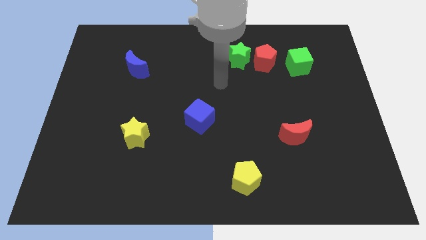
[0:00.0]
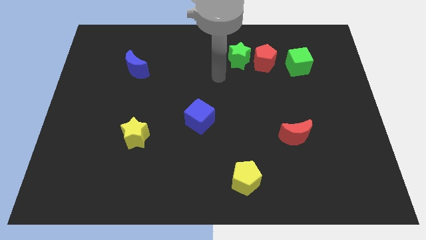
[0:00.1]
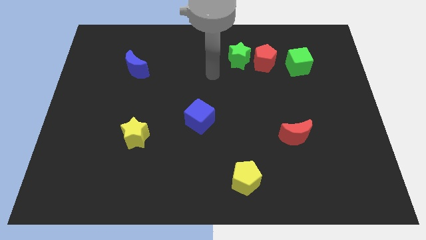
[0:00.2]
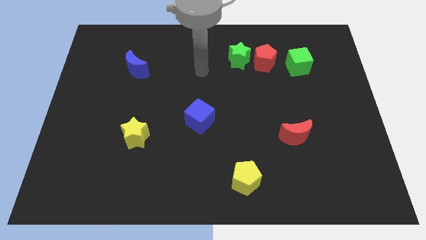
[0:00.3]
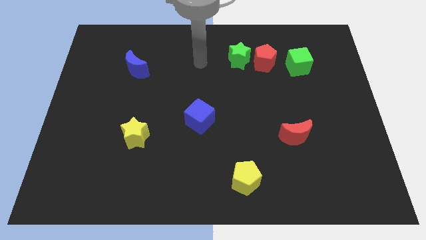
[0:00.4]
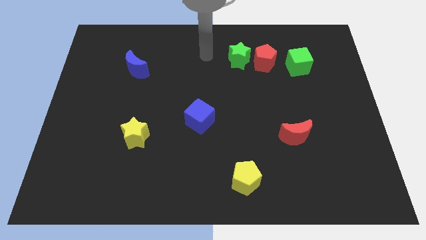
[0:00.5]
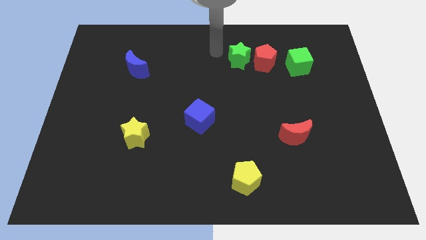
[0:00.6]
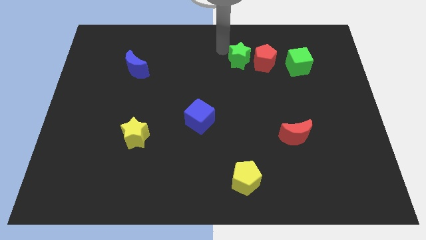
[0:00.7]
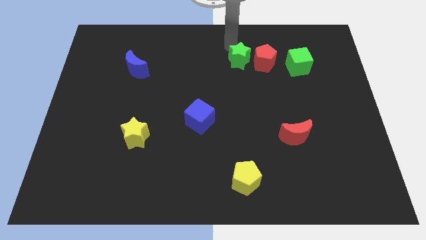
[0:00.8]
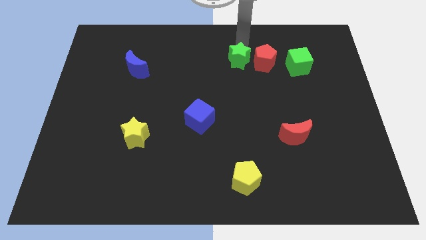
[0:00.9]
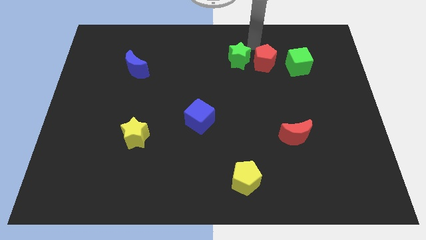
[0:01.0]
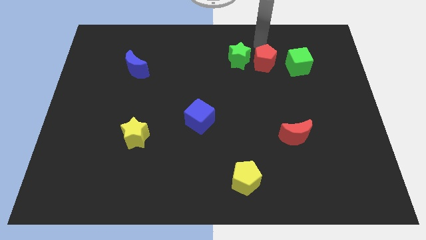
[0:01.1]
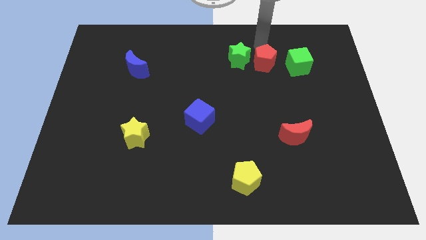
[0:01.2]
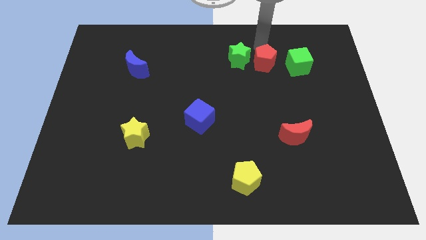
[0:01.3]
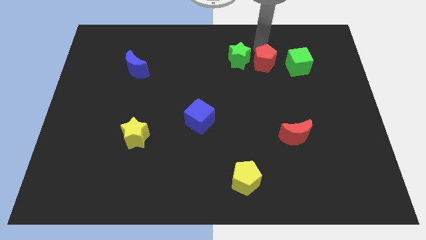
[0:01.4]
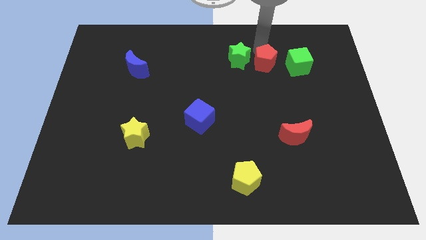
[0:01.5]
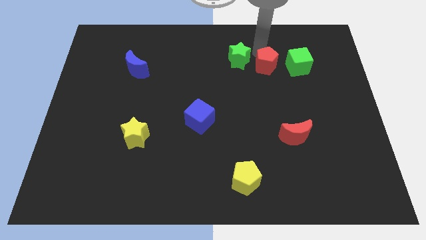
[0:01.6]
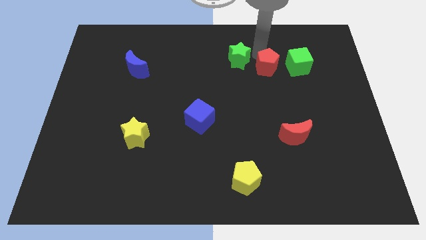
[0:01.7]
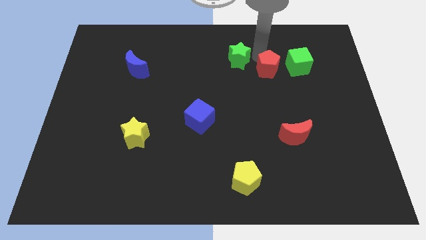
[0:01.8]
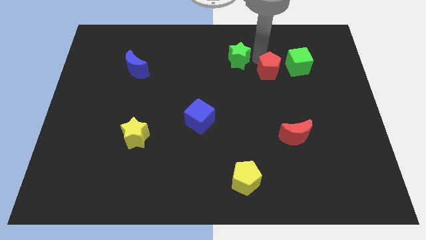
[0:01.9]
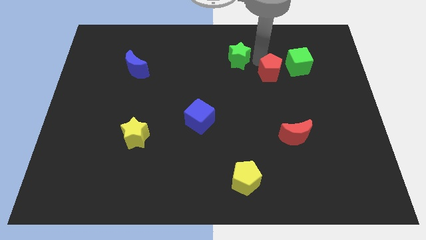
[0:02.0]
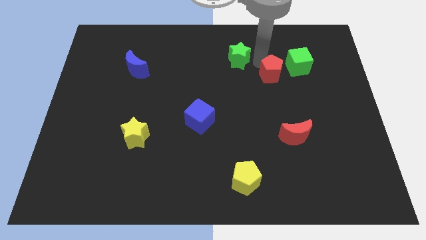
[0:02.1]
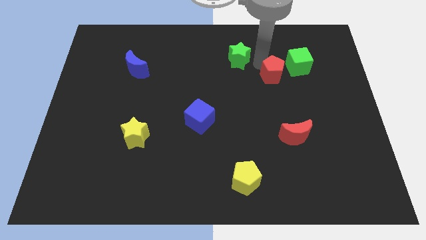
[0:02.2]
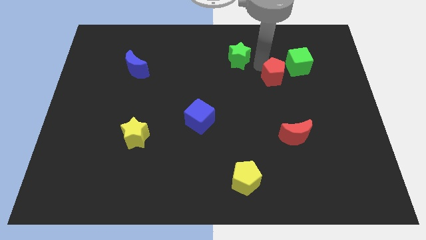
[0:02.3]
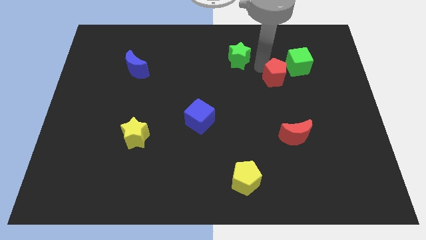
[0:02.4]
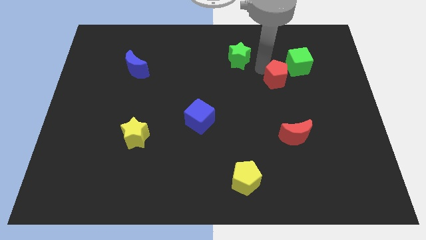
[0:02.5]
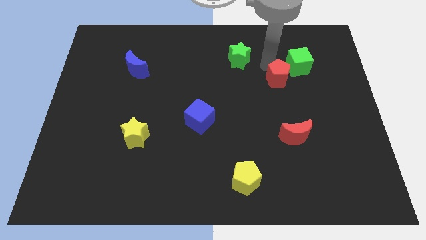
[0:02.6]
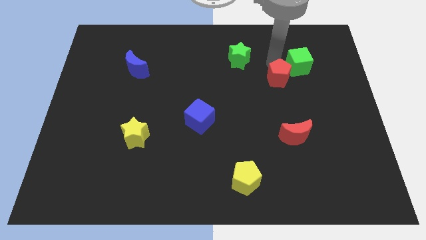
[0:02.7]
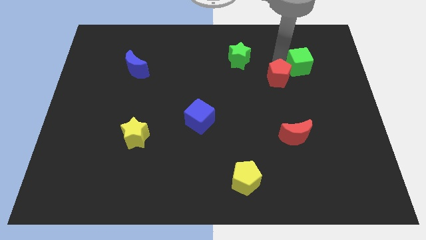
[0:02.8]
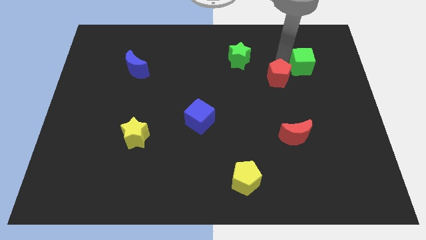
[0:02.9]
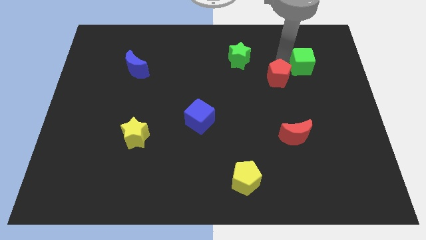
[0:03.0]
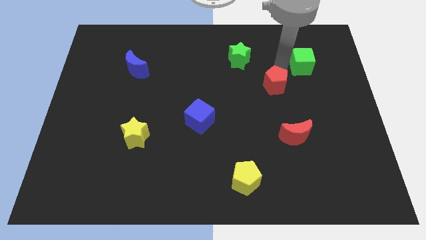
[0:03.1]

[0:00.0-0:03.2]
slightly slide the red pentagon down

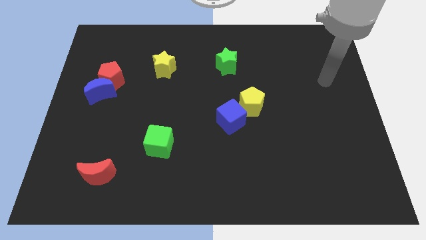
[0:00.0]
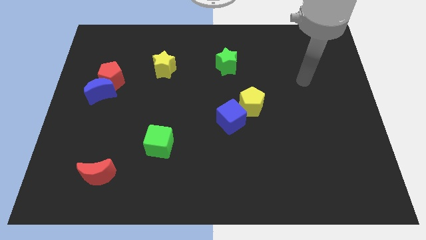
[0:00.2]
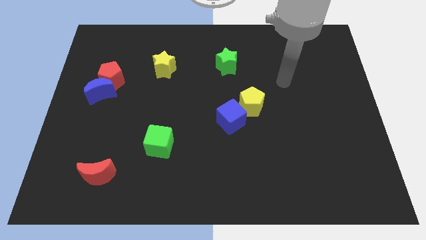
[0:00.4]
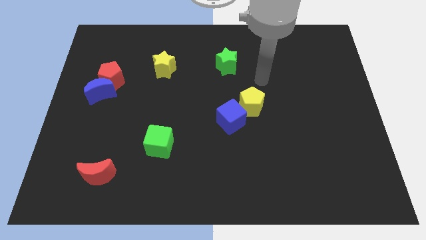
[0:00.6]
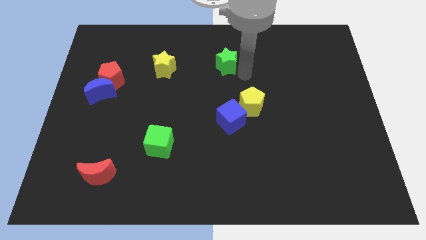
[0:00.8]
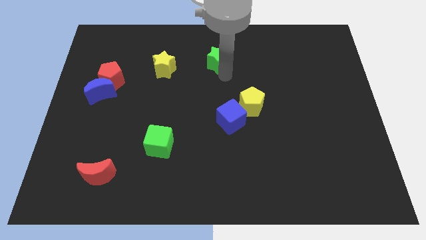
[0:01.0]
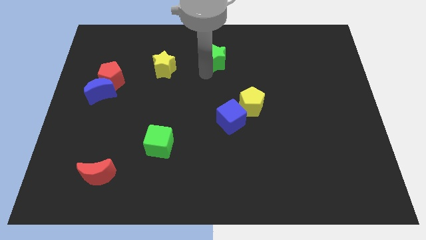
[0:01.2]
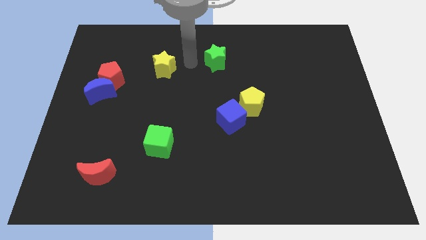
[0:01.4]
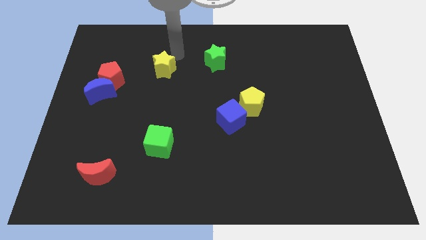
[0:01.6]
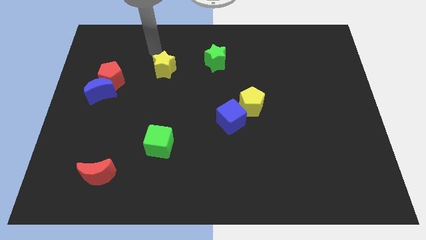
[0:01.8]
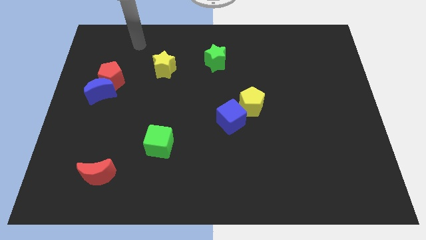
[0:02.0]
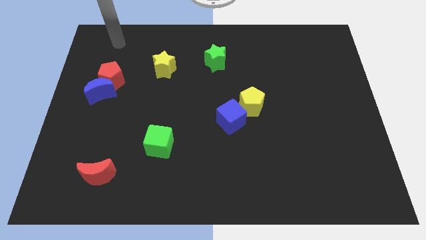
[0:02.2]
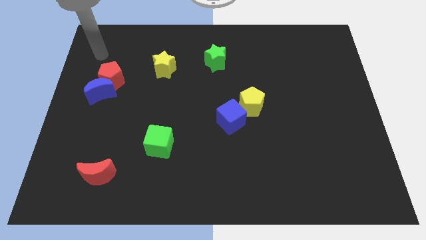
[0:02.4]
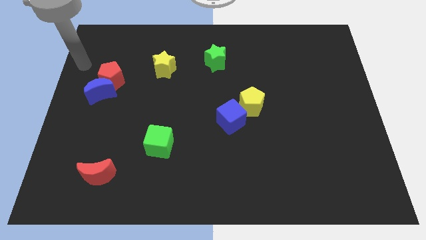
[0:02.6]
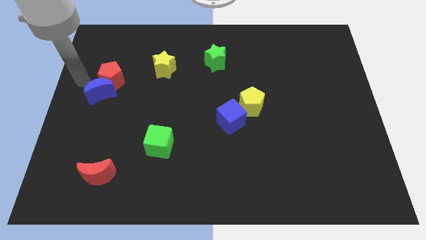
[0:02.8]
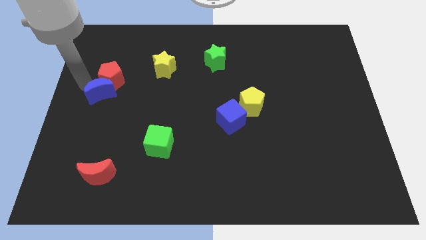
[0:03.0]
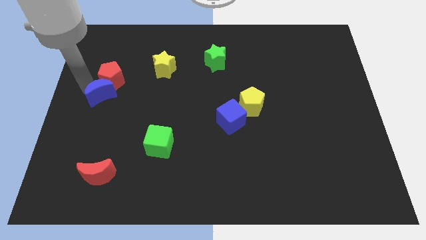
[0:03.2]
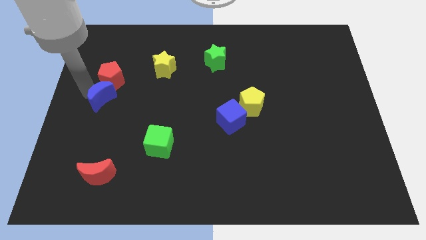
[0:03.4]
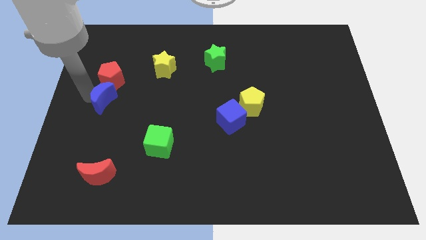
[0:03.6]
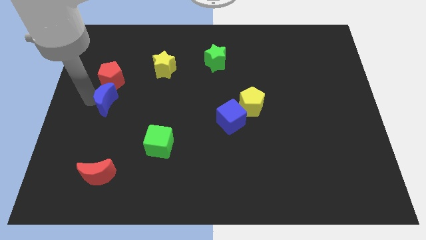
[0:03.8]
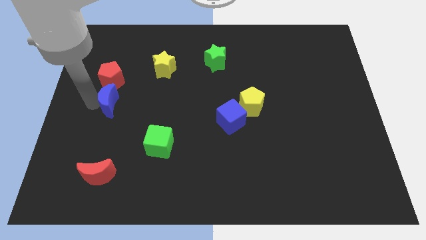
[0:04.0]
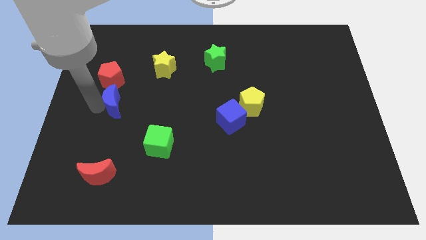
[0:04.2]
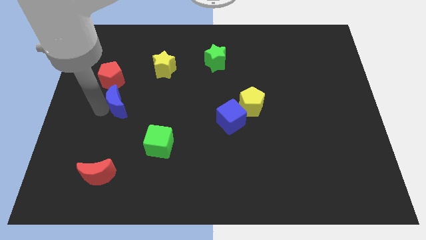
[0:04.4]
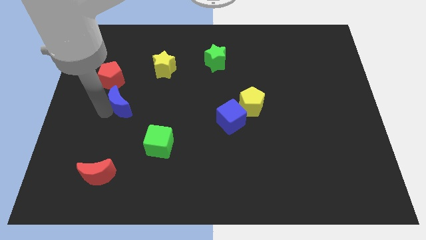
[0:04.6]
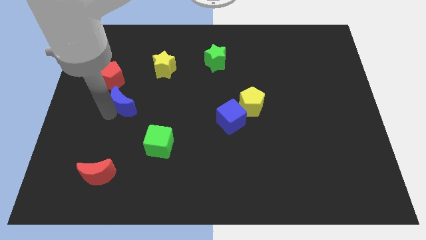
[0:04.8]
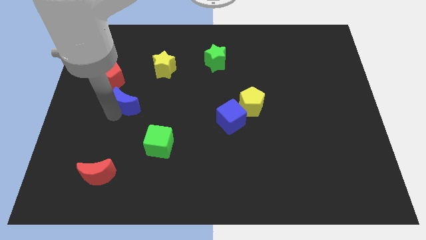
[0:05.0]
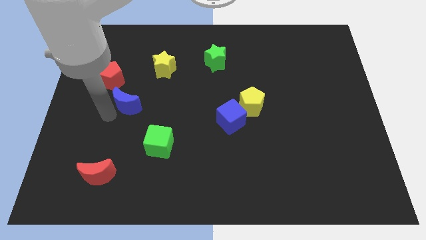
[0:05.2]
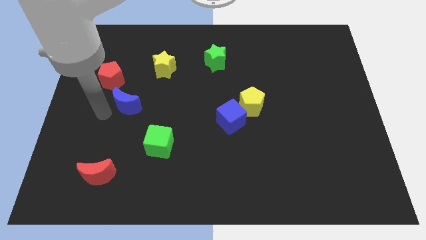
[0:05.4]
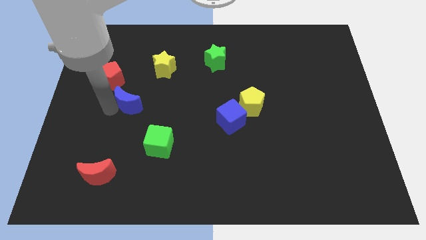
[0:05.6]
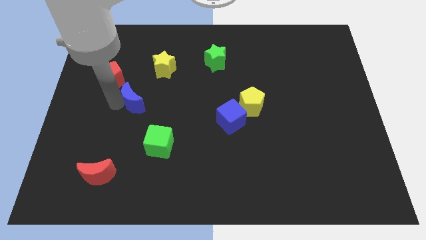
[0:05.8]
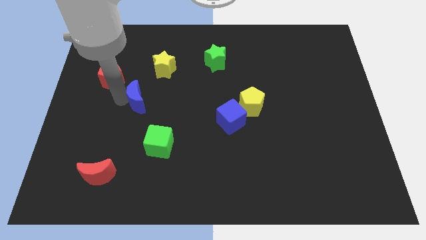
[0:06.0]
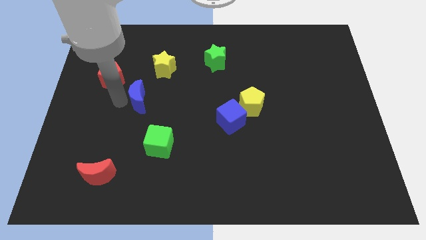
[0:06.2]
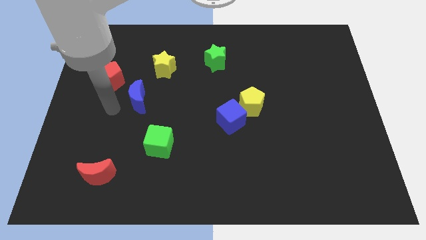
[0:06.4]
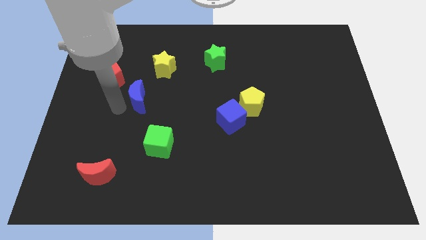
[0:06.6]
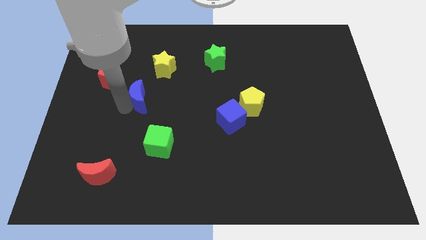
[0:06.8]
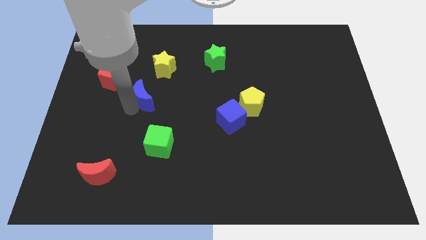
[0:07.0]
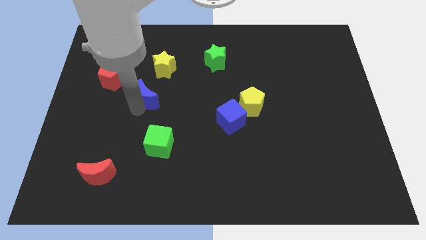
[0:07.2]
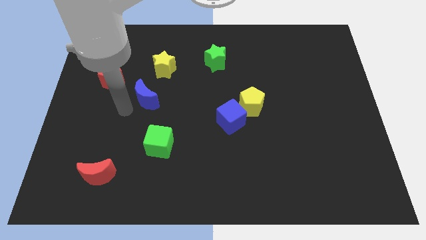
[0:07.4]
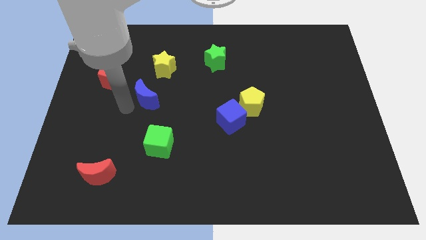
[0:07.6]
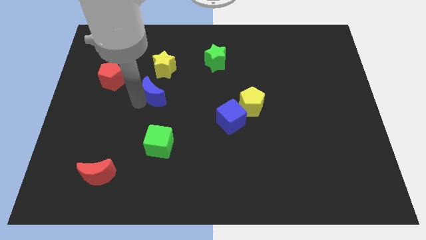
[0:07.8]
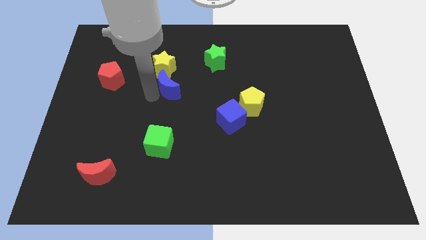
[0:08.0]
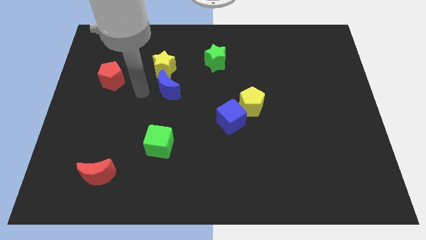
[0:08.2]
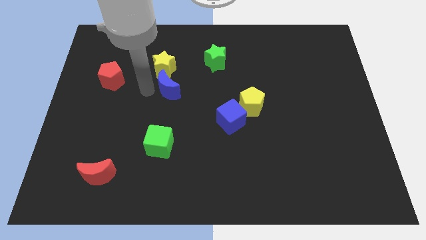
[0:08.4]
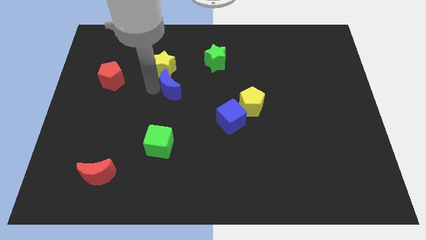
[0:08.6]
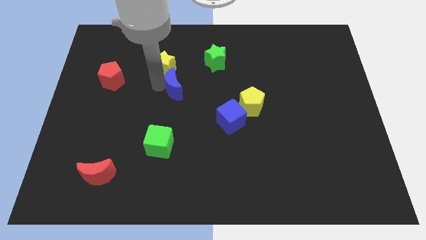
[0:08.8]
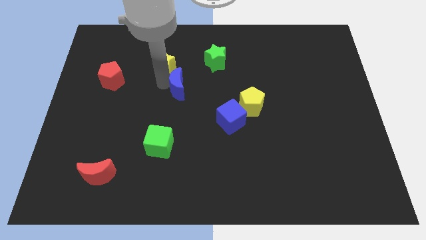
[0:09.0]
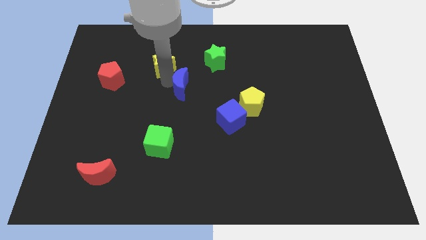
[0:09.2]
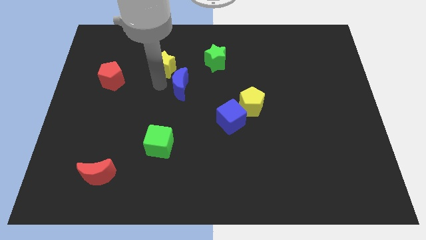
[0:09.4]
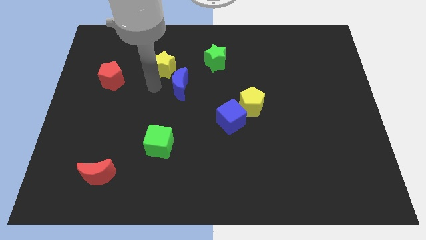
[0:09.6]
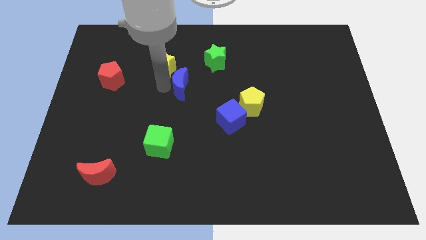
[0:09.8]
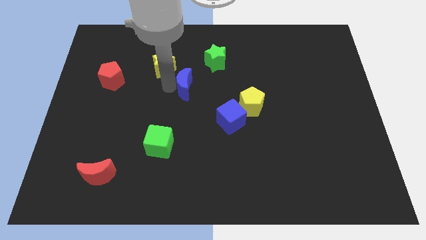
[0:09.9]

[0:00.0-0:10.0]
slide the blue moon right

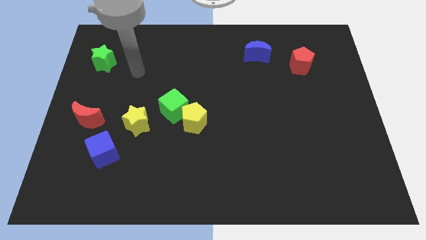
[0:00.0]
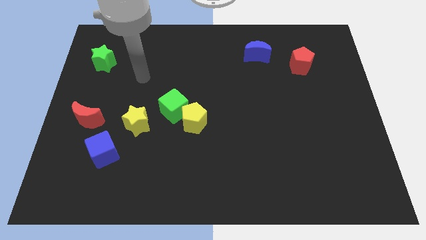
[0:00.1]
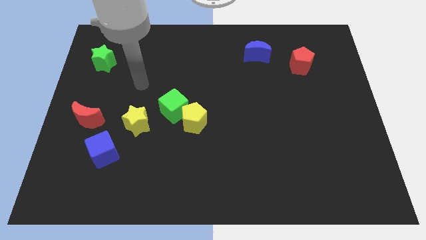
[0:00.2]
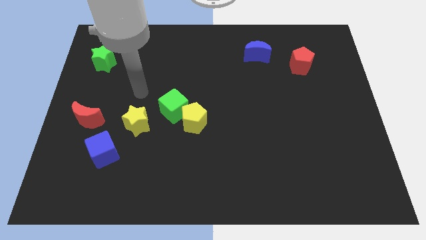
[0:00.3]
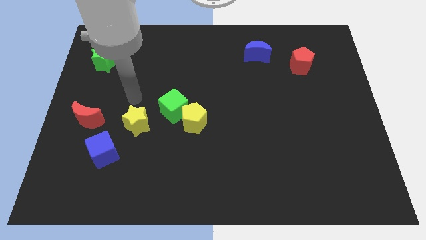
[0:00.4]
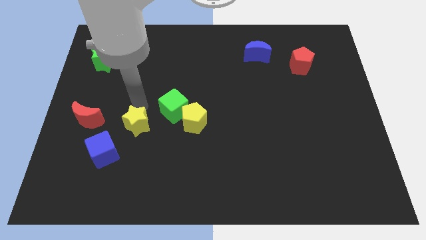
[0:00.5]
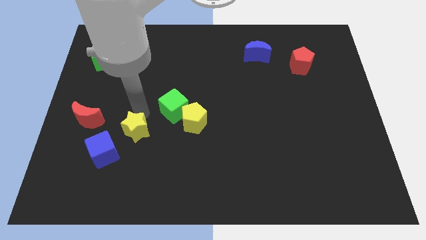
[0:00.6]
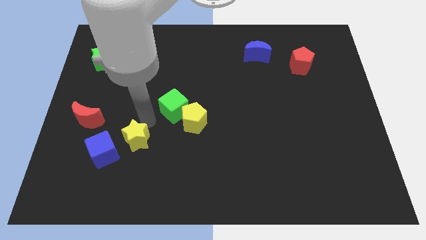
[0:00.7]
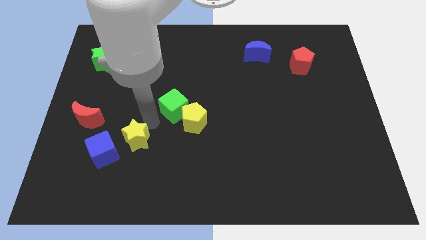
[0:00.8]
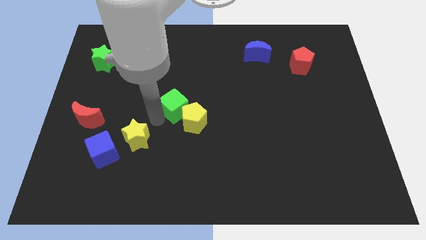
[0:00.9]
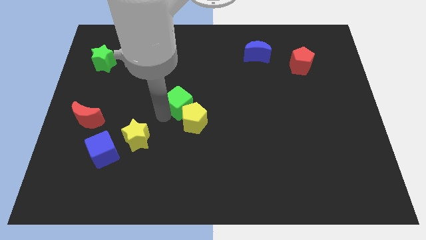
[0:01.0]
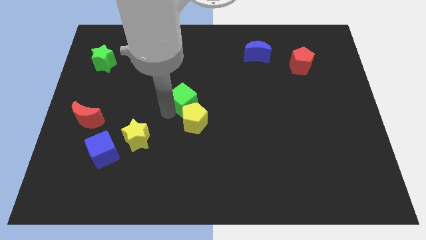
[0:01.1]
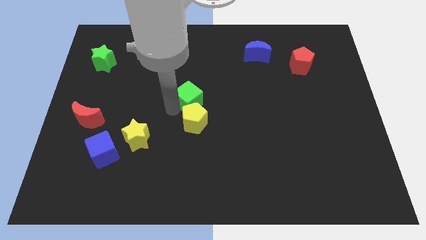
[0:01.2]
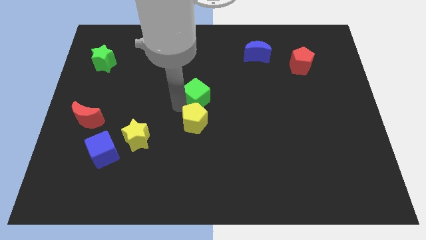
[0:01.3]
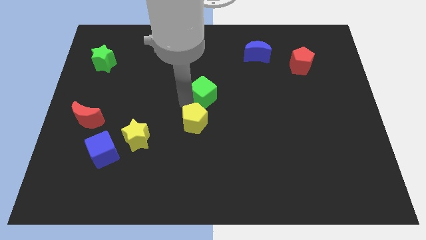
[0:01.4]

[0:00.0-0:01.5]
move the green cube a bit diagonally up and to the right
